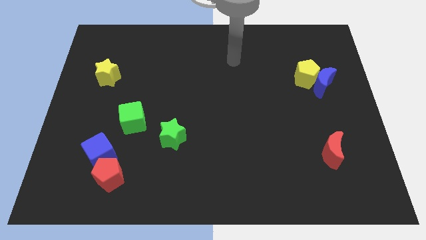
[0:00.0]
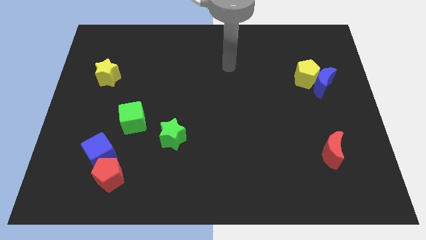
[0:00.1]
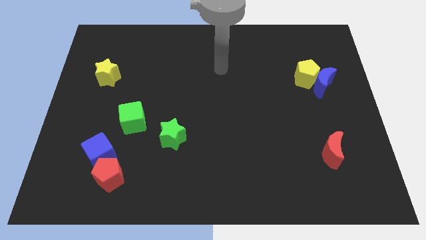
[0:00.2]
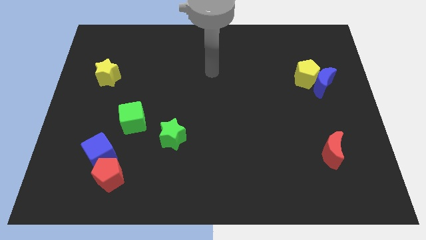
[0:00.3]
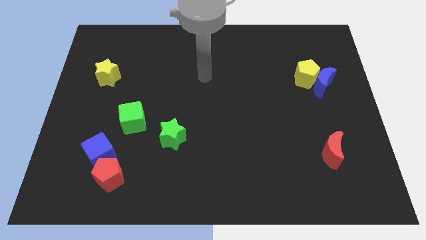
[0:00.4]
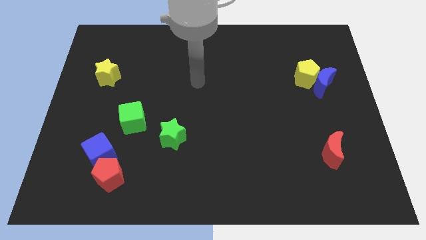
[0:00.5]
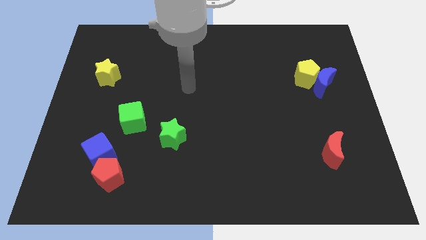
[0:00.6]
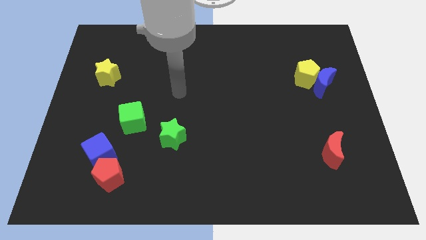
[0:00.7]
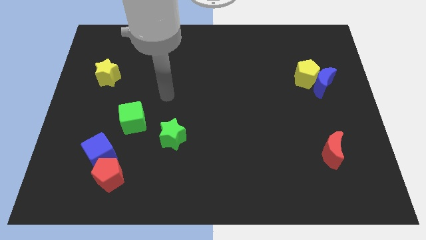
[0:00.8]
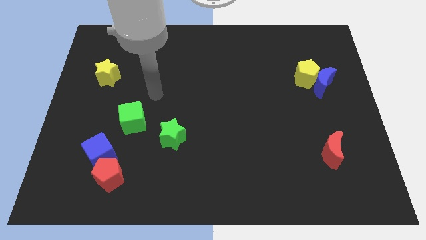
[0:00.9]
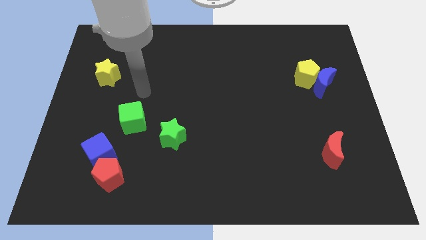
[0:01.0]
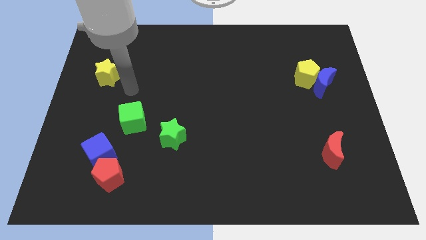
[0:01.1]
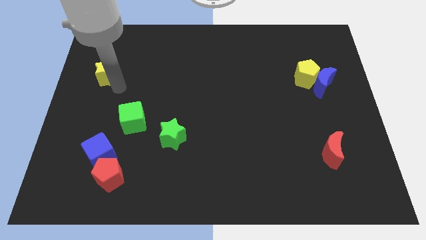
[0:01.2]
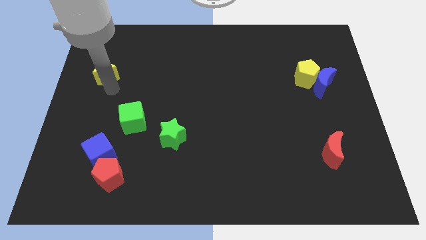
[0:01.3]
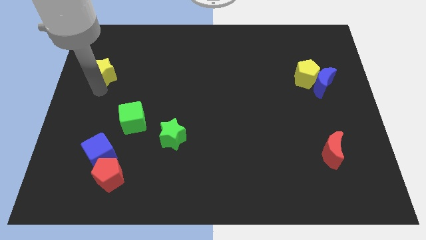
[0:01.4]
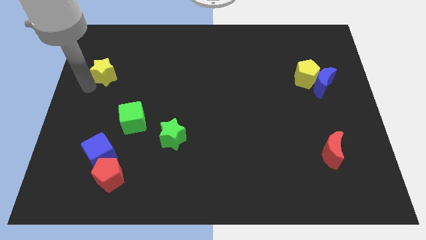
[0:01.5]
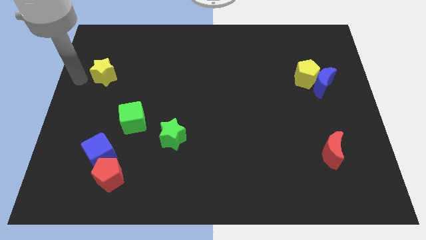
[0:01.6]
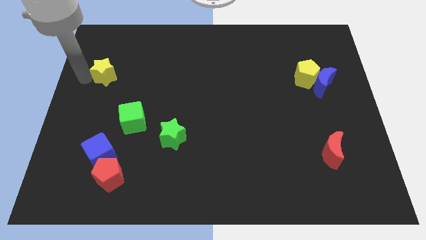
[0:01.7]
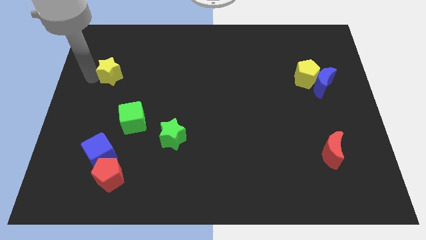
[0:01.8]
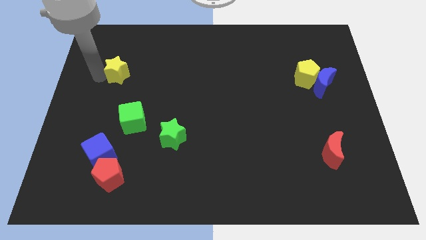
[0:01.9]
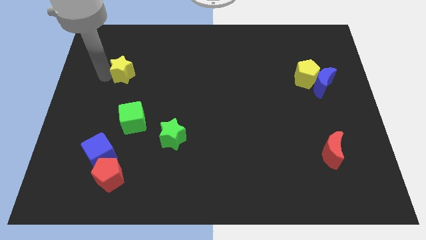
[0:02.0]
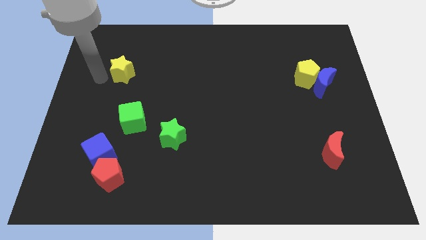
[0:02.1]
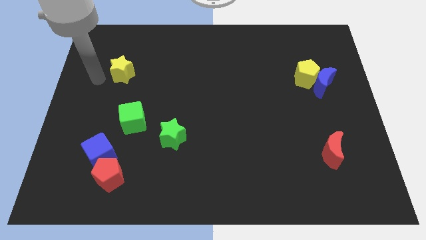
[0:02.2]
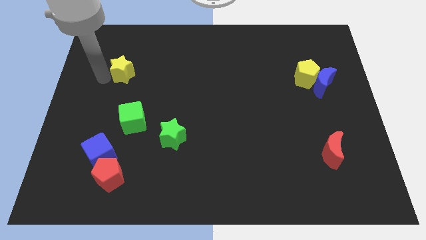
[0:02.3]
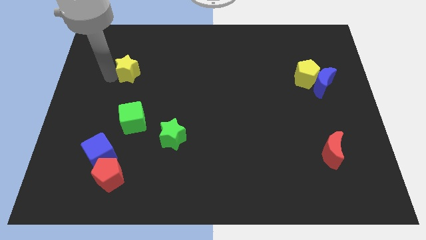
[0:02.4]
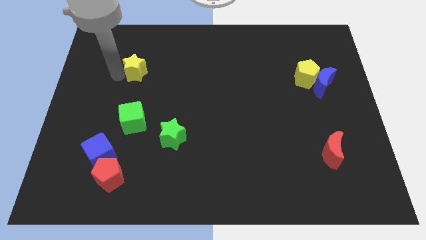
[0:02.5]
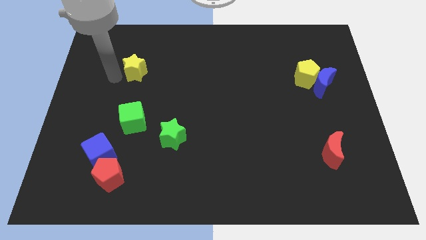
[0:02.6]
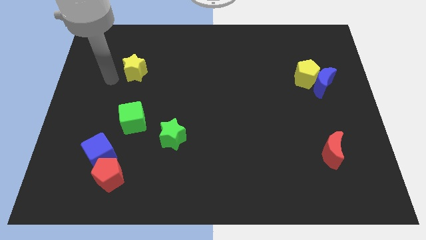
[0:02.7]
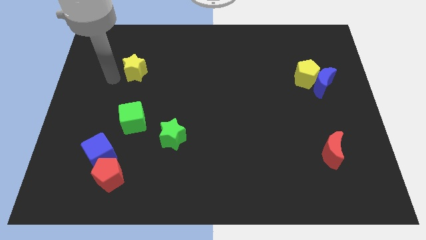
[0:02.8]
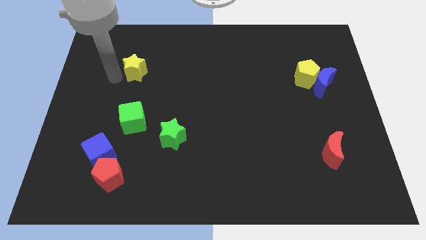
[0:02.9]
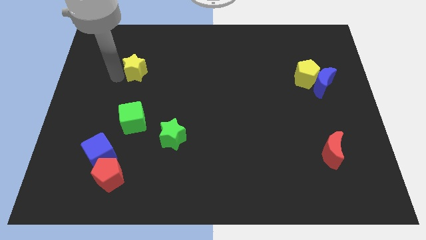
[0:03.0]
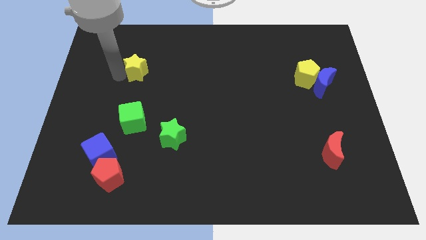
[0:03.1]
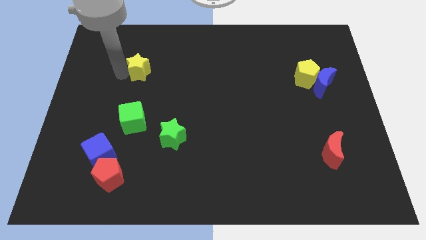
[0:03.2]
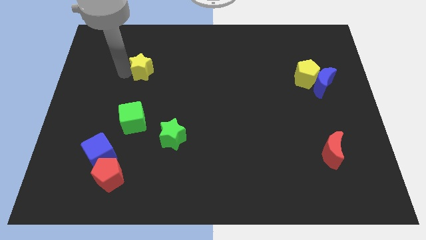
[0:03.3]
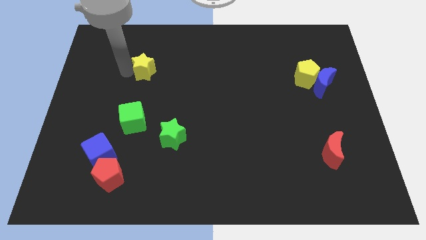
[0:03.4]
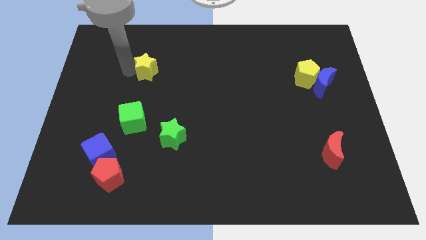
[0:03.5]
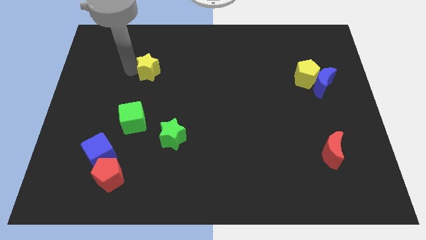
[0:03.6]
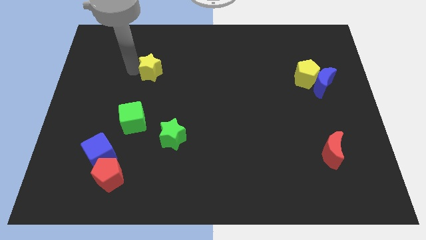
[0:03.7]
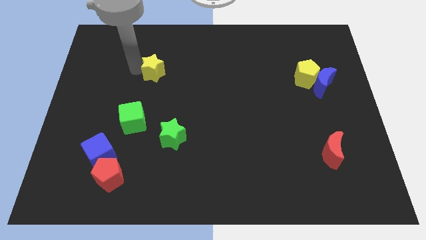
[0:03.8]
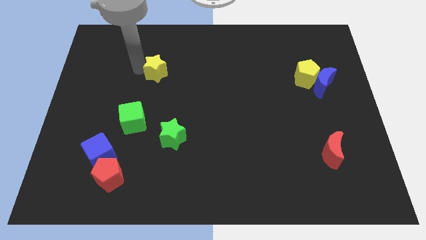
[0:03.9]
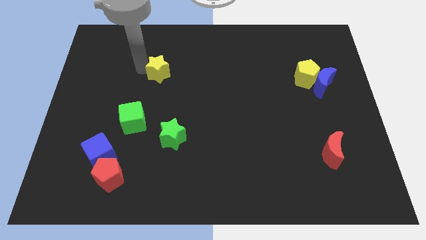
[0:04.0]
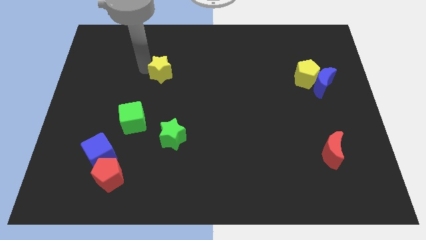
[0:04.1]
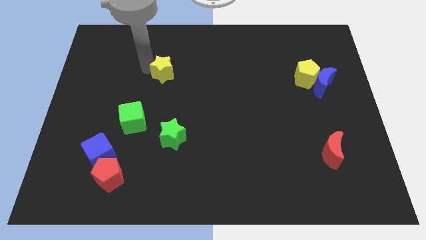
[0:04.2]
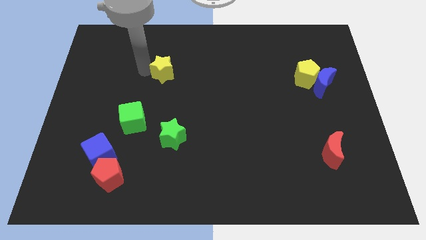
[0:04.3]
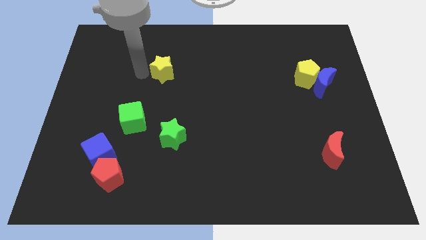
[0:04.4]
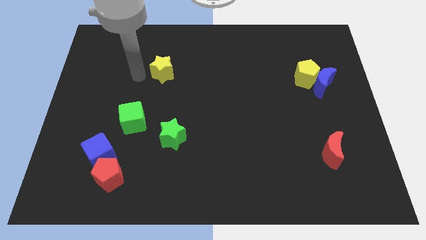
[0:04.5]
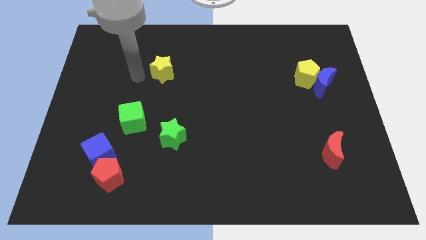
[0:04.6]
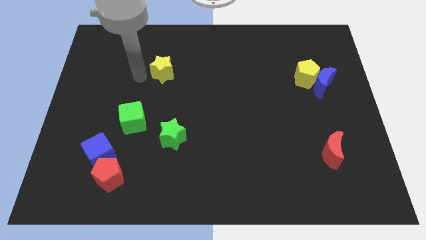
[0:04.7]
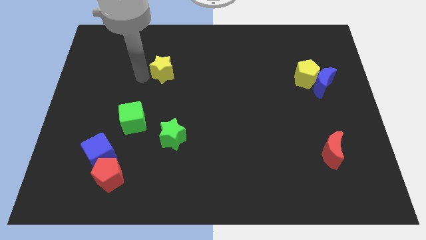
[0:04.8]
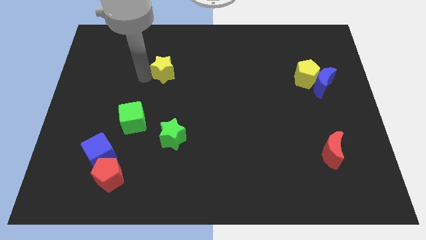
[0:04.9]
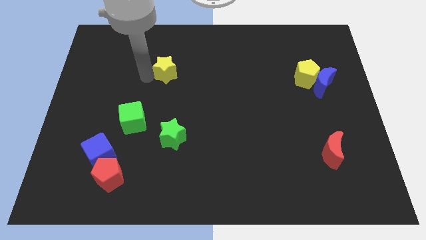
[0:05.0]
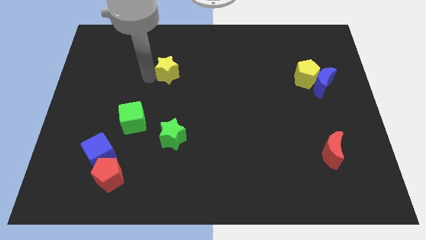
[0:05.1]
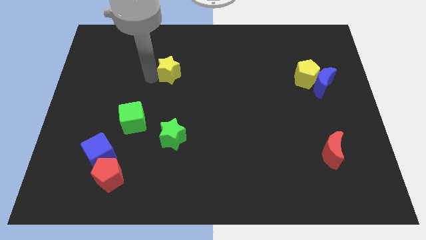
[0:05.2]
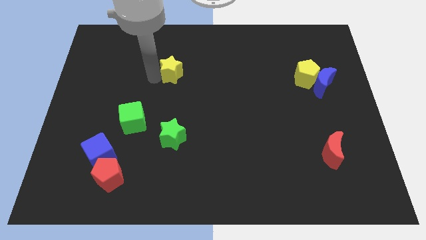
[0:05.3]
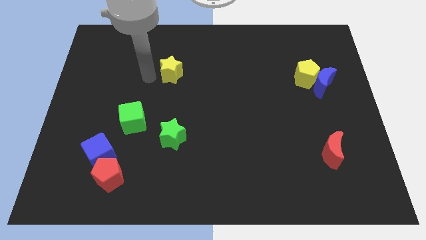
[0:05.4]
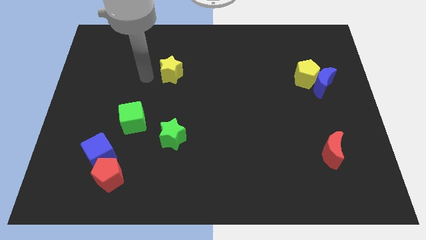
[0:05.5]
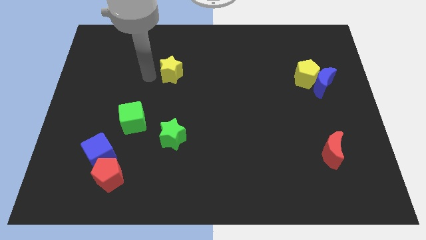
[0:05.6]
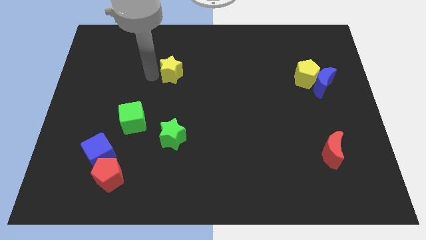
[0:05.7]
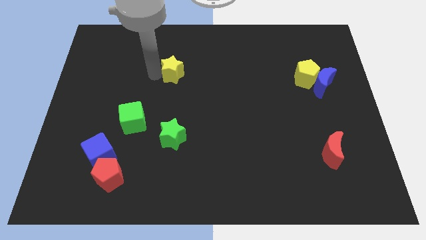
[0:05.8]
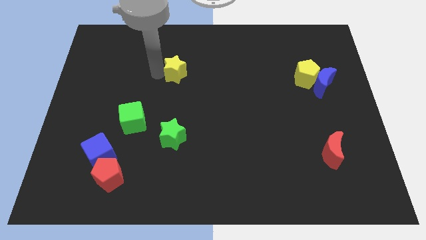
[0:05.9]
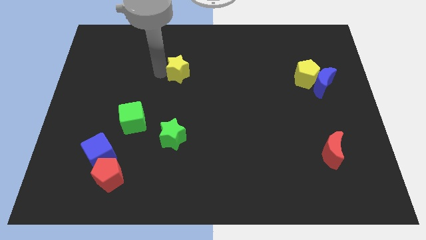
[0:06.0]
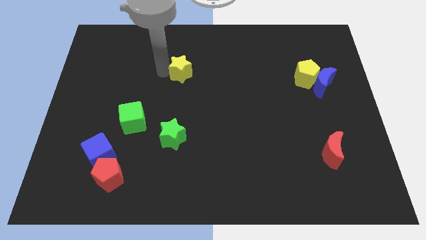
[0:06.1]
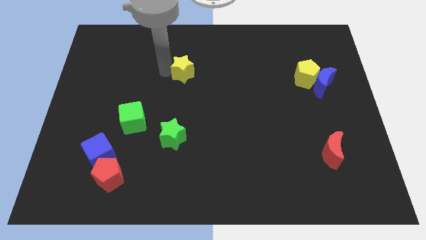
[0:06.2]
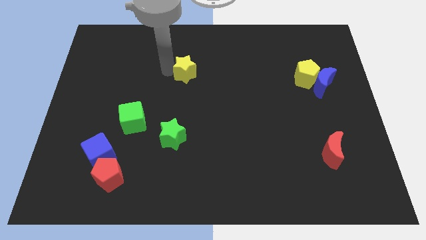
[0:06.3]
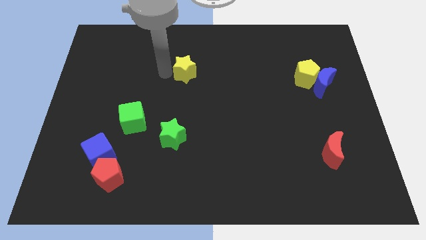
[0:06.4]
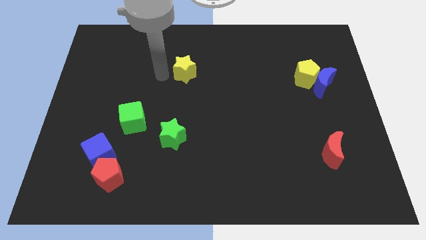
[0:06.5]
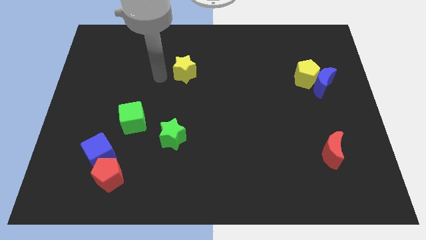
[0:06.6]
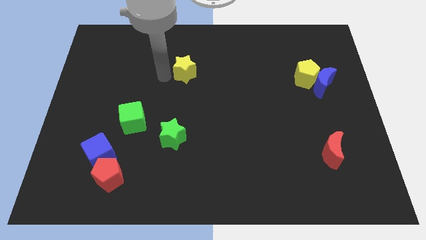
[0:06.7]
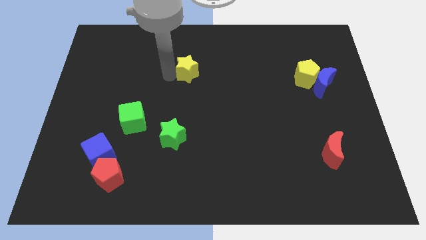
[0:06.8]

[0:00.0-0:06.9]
slide the yellow star right

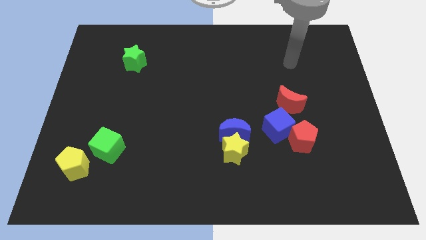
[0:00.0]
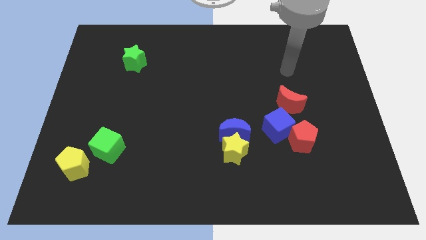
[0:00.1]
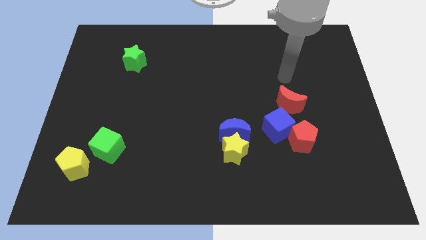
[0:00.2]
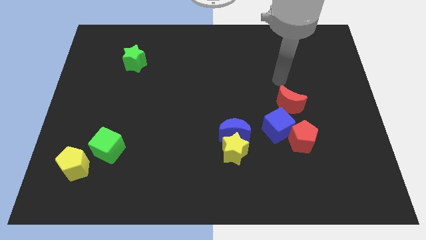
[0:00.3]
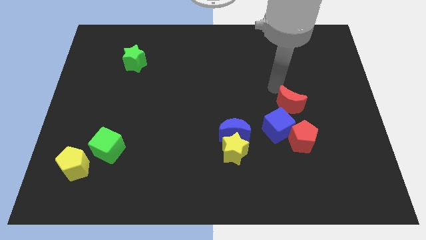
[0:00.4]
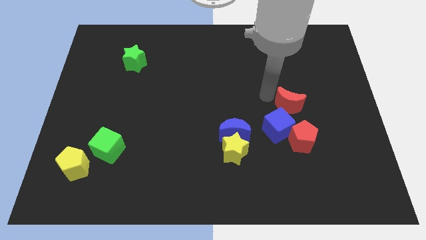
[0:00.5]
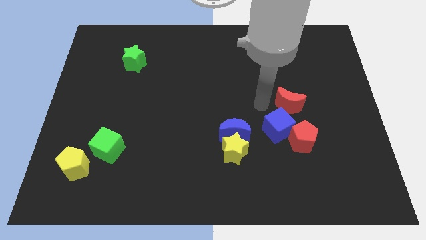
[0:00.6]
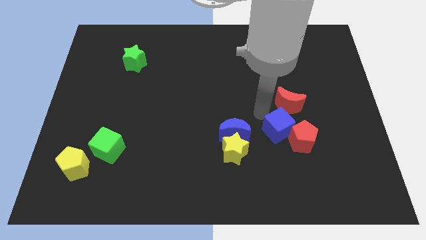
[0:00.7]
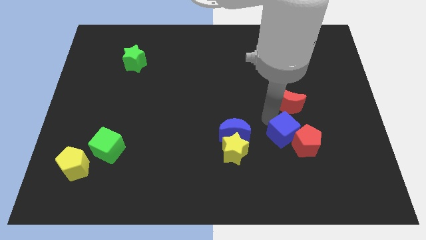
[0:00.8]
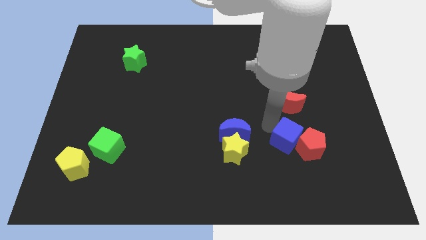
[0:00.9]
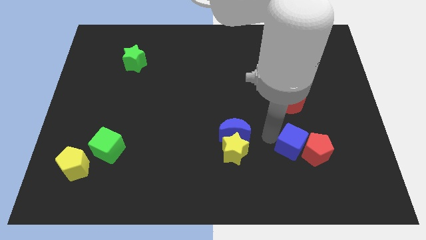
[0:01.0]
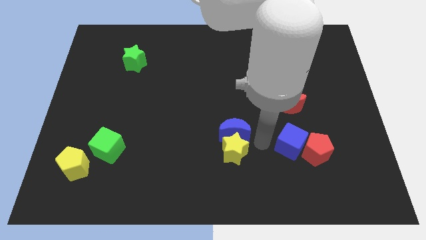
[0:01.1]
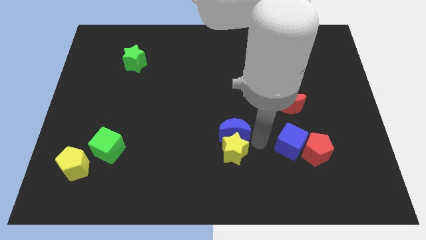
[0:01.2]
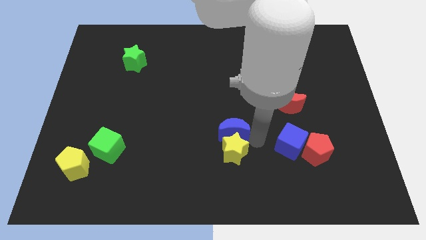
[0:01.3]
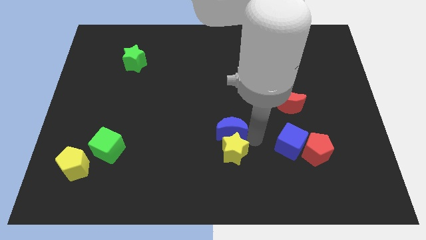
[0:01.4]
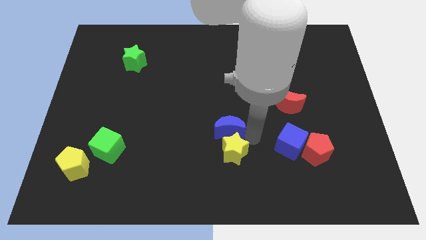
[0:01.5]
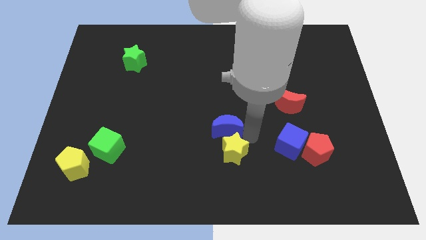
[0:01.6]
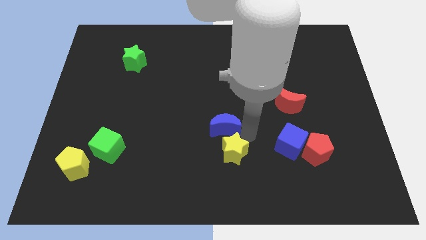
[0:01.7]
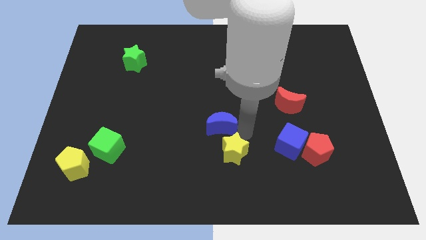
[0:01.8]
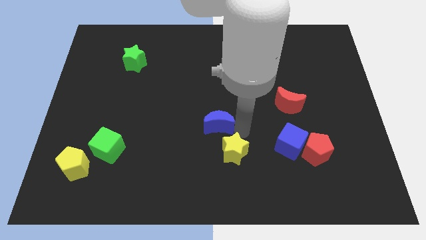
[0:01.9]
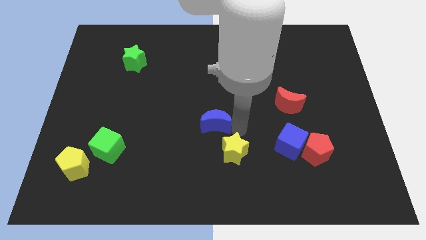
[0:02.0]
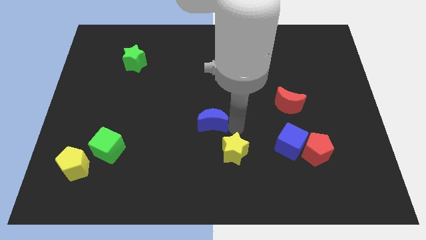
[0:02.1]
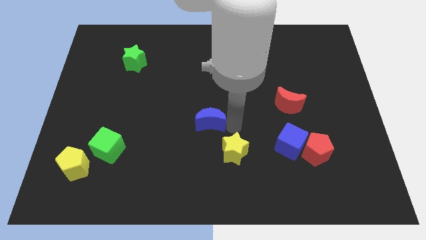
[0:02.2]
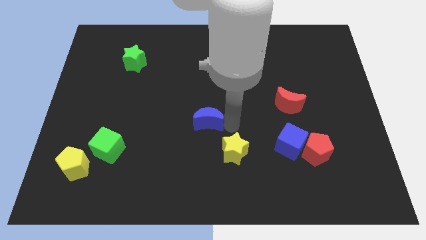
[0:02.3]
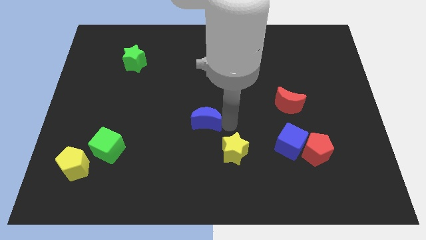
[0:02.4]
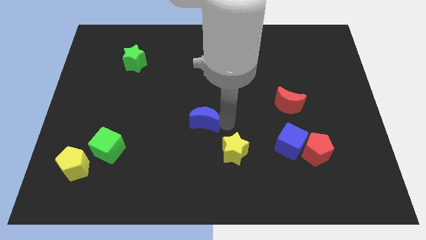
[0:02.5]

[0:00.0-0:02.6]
slightly push the blue moon up and then left
